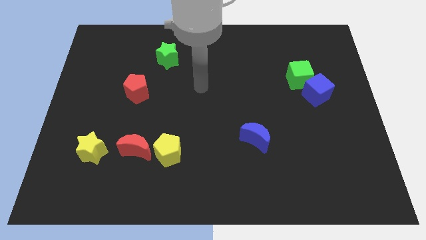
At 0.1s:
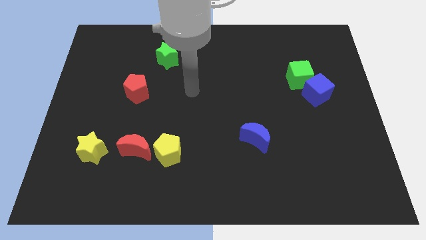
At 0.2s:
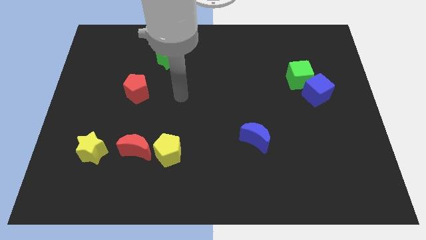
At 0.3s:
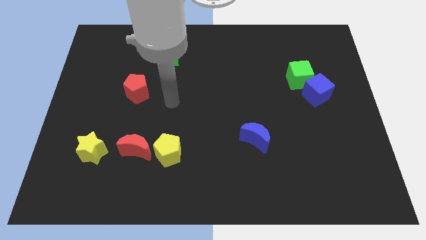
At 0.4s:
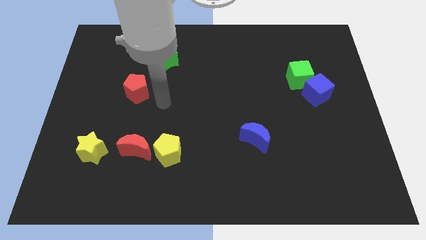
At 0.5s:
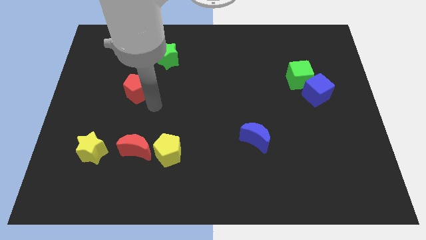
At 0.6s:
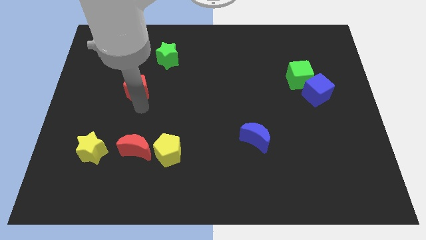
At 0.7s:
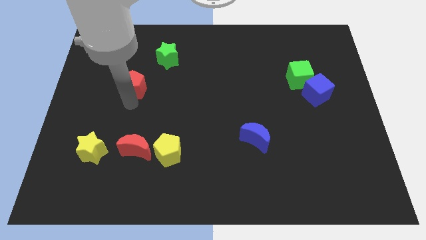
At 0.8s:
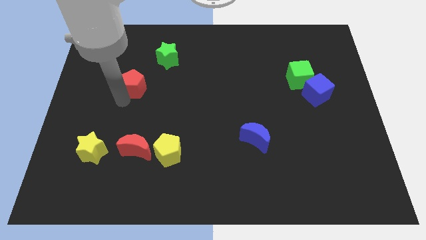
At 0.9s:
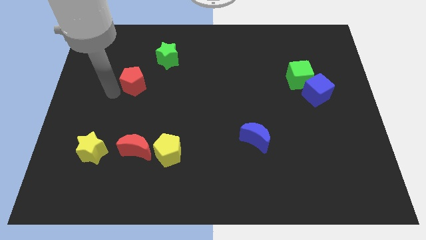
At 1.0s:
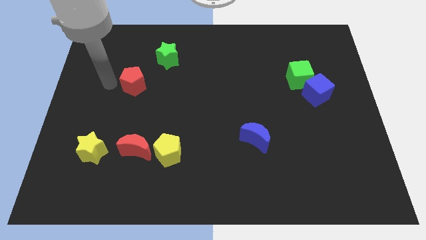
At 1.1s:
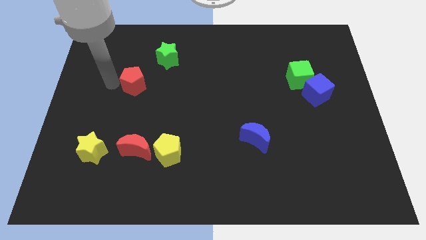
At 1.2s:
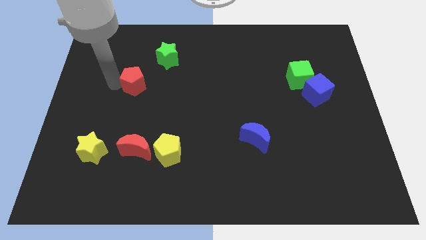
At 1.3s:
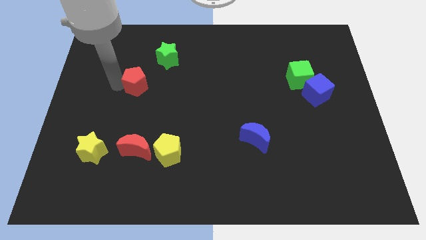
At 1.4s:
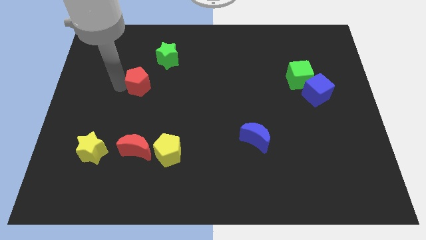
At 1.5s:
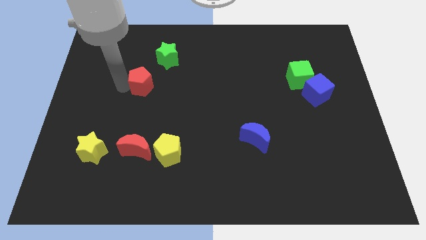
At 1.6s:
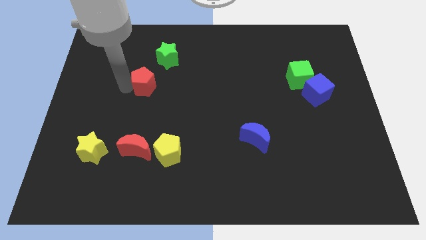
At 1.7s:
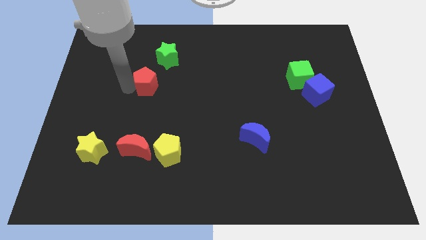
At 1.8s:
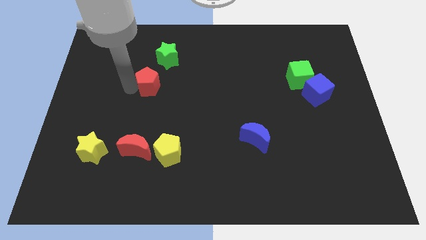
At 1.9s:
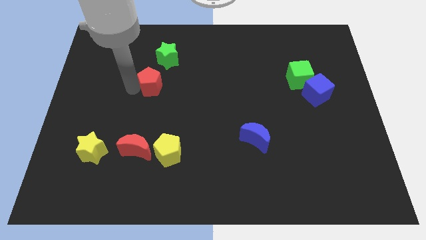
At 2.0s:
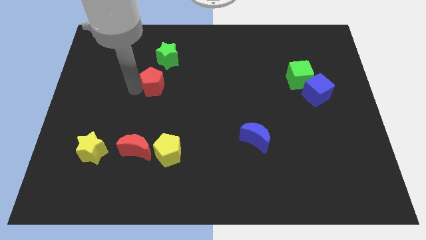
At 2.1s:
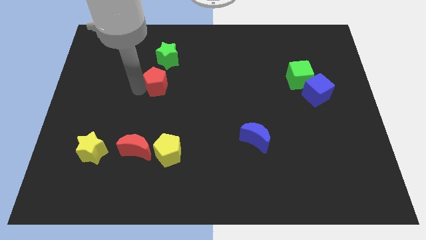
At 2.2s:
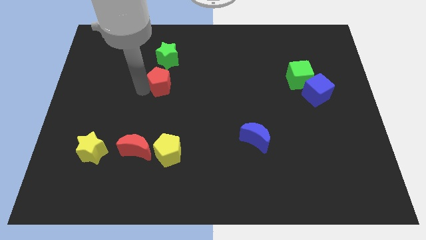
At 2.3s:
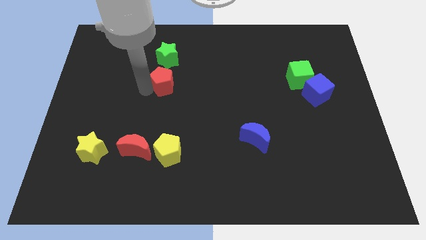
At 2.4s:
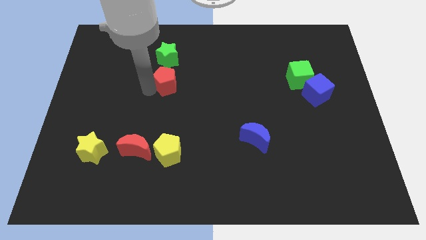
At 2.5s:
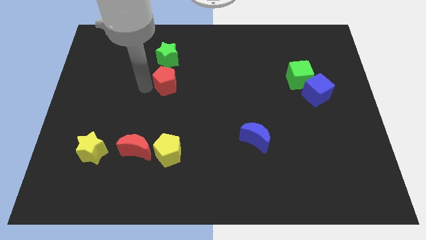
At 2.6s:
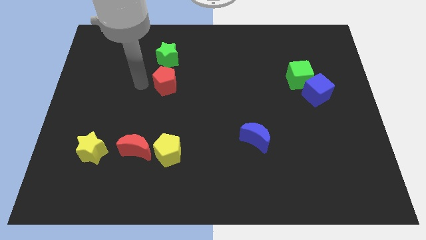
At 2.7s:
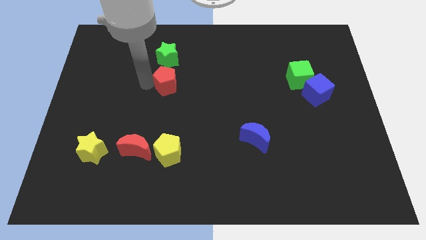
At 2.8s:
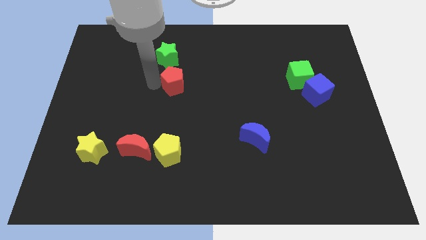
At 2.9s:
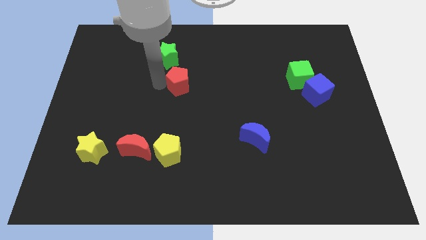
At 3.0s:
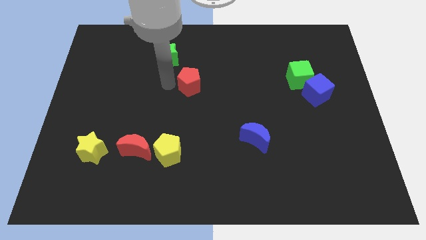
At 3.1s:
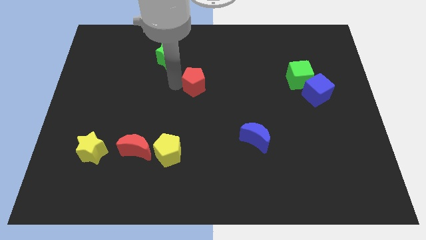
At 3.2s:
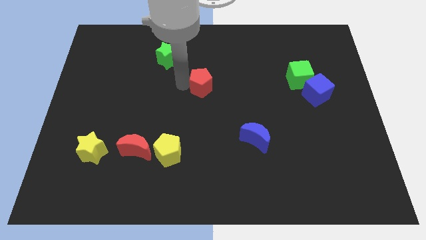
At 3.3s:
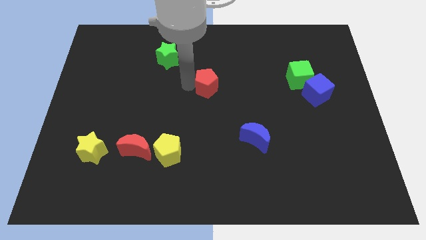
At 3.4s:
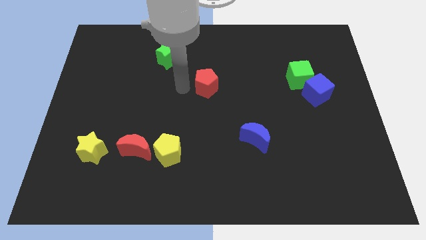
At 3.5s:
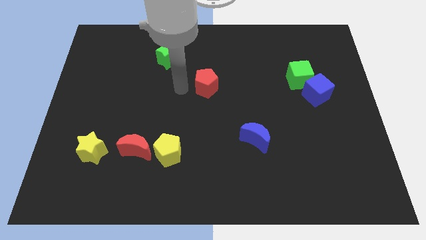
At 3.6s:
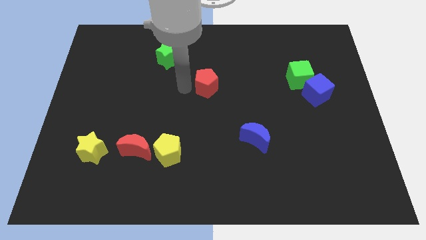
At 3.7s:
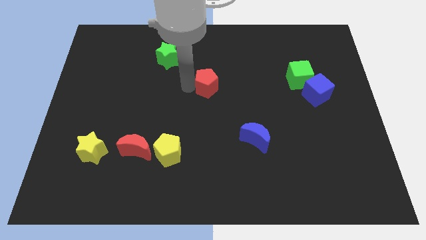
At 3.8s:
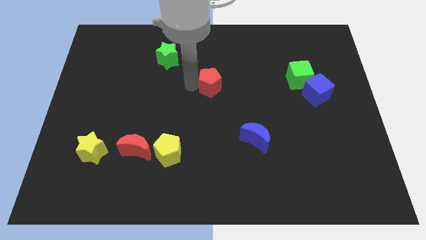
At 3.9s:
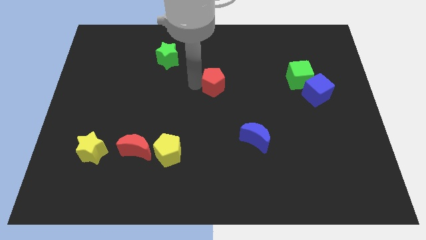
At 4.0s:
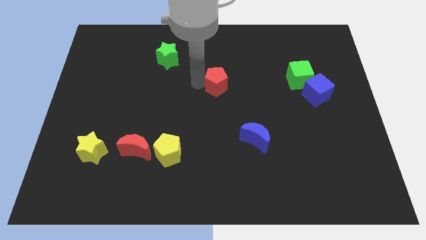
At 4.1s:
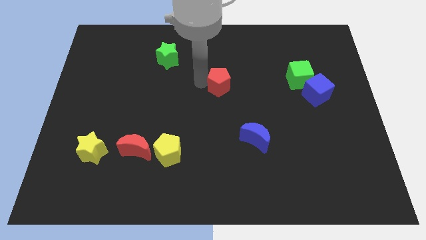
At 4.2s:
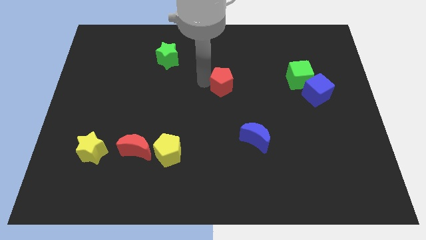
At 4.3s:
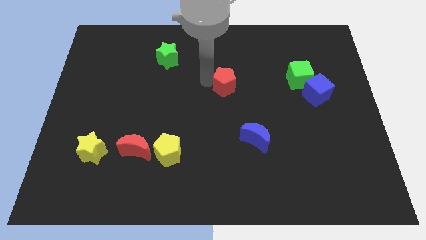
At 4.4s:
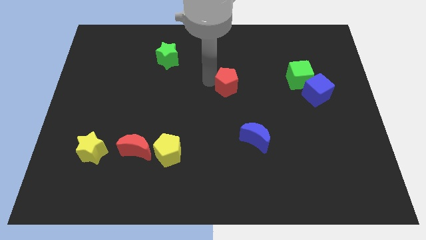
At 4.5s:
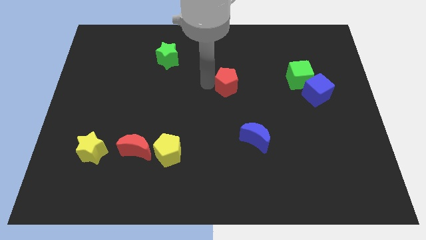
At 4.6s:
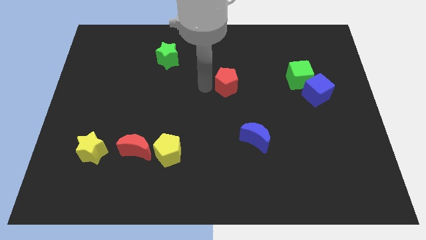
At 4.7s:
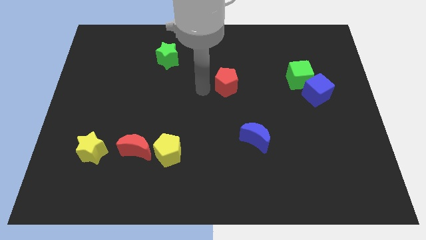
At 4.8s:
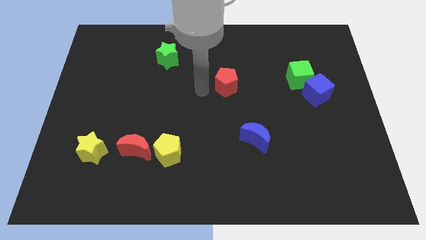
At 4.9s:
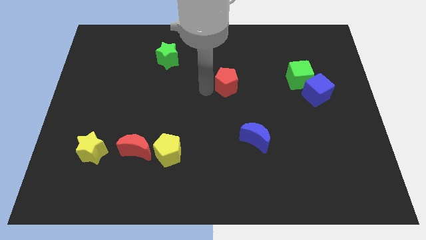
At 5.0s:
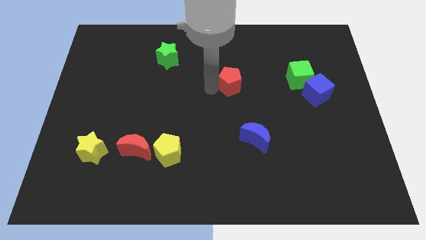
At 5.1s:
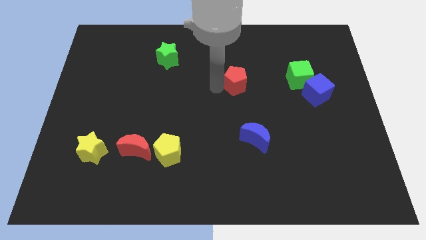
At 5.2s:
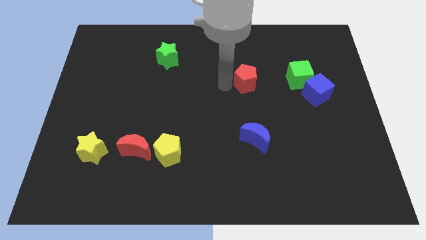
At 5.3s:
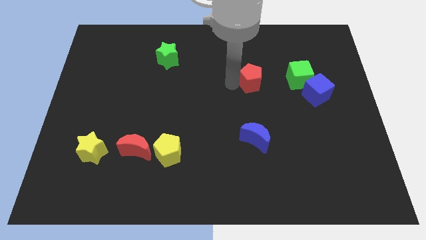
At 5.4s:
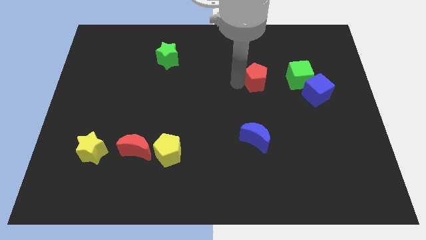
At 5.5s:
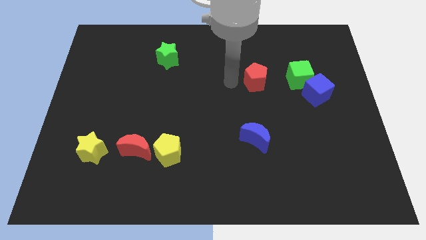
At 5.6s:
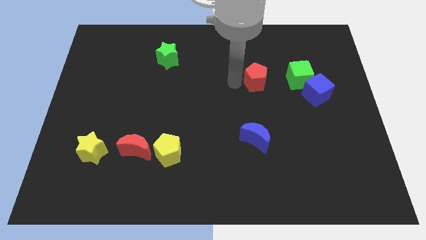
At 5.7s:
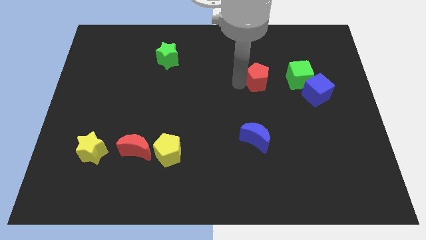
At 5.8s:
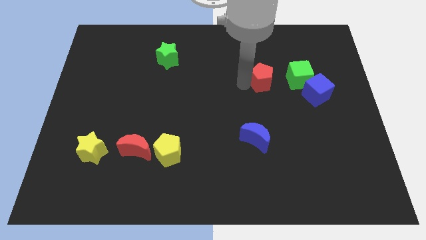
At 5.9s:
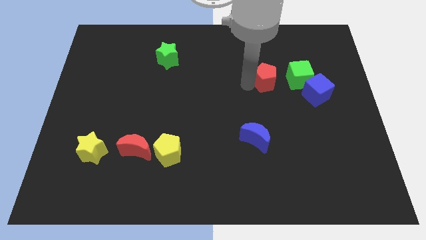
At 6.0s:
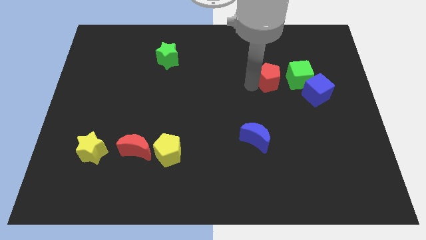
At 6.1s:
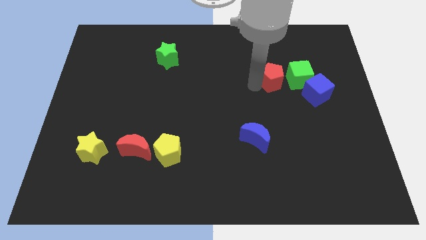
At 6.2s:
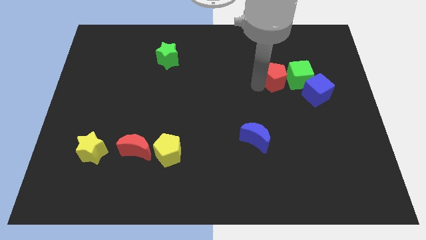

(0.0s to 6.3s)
push the red pentagon close to the green cube
